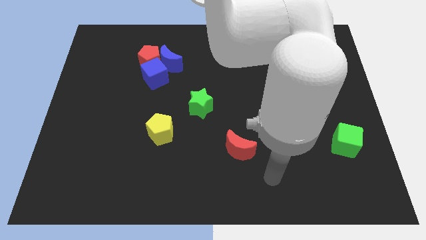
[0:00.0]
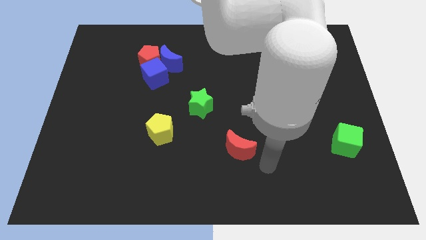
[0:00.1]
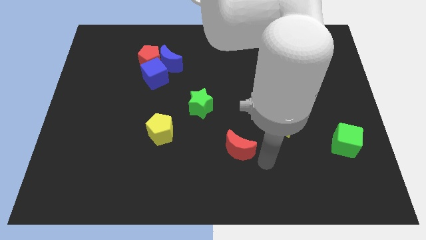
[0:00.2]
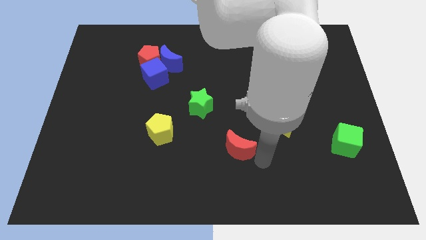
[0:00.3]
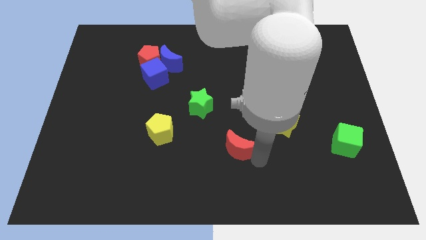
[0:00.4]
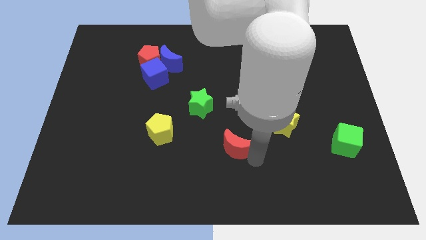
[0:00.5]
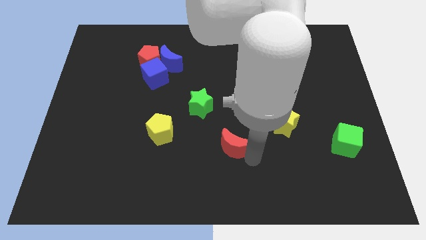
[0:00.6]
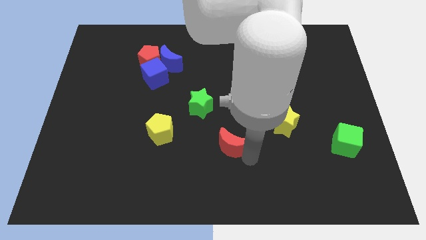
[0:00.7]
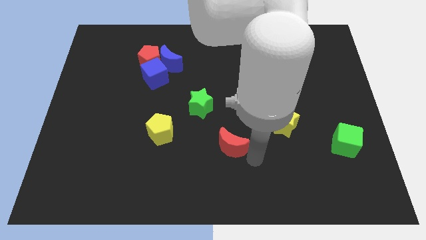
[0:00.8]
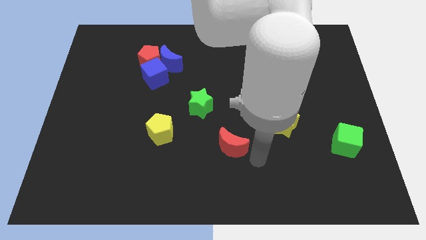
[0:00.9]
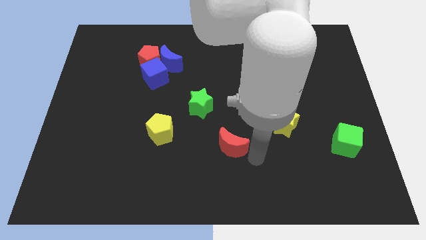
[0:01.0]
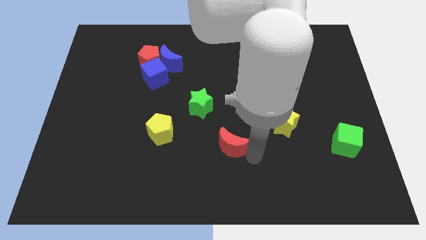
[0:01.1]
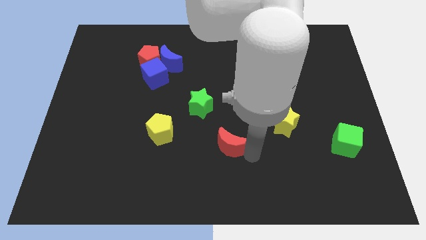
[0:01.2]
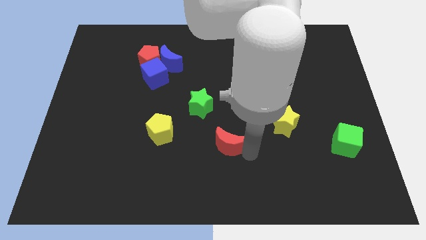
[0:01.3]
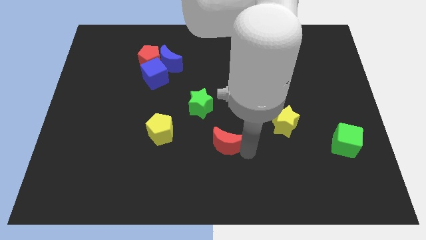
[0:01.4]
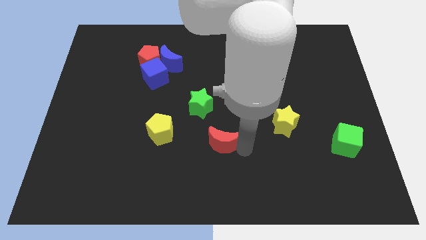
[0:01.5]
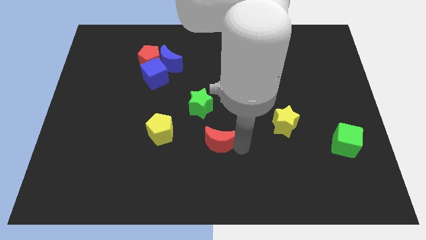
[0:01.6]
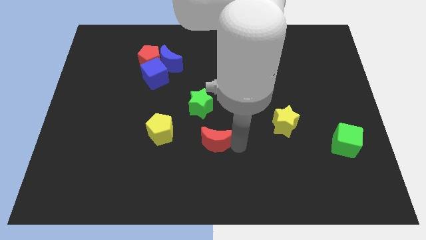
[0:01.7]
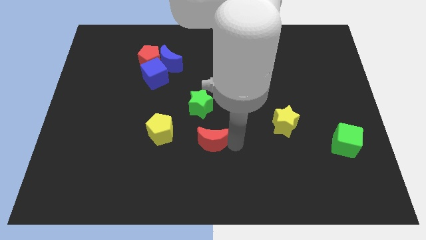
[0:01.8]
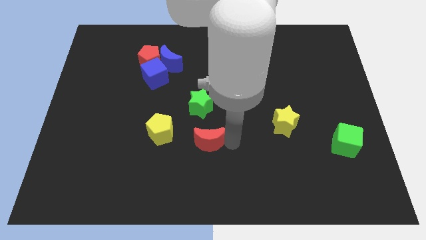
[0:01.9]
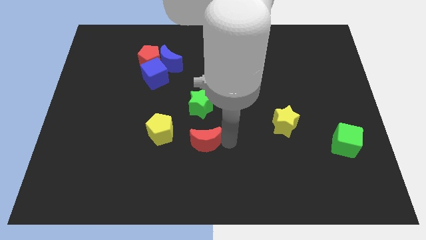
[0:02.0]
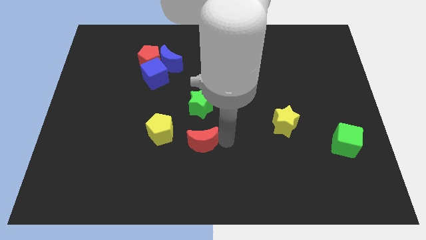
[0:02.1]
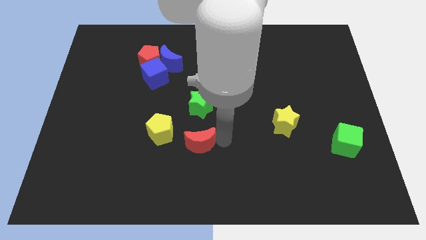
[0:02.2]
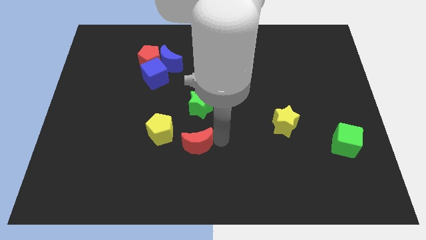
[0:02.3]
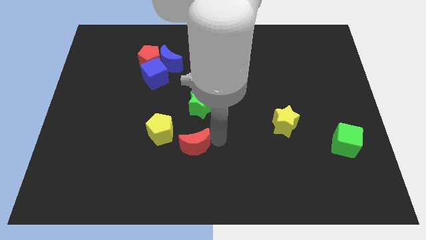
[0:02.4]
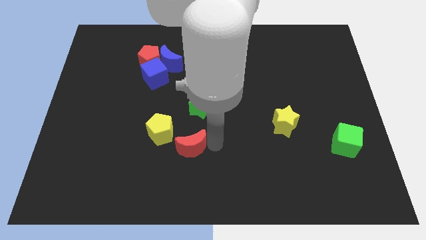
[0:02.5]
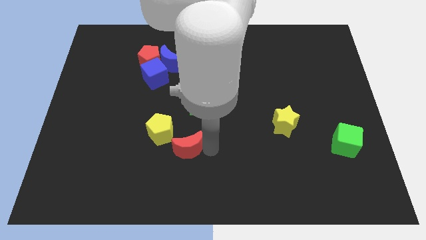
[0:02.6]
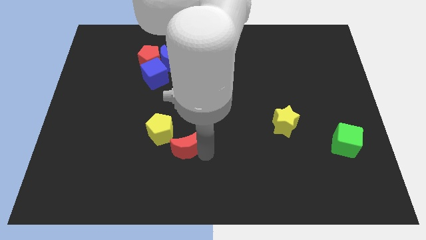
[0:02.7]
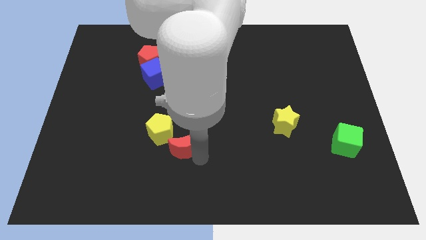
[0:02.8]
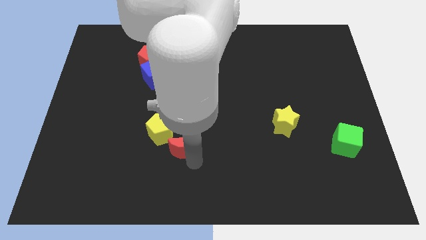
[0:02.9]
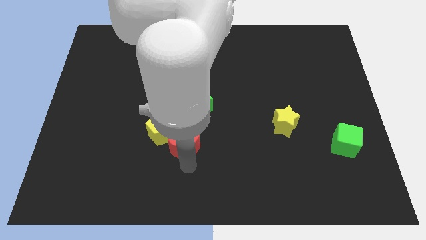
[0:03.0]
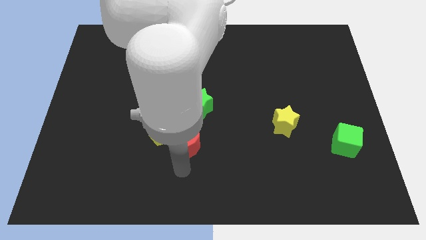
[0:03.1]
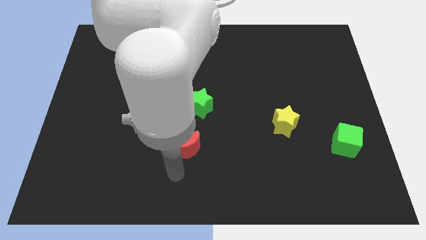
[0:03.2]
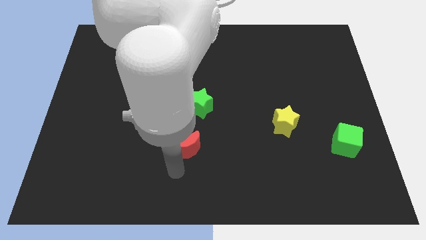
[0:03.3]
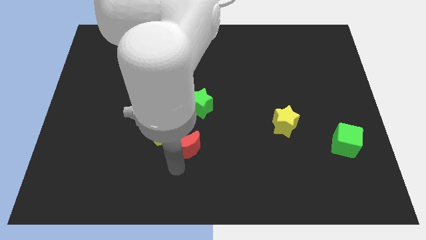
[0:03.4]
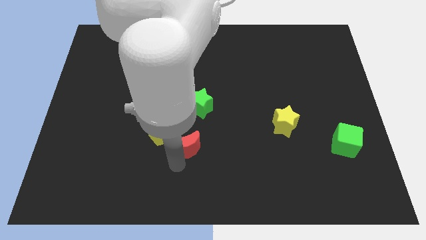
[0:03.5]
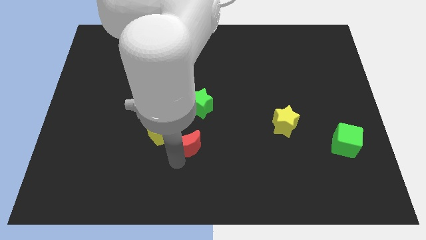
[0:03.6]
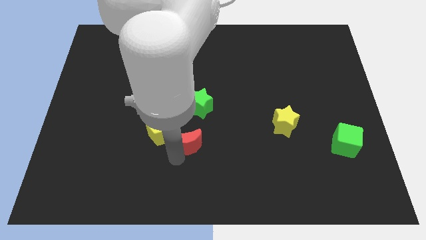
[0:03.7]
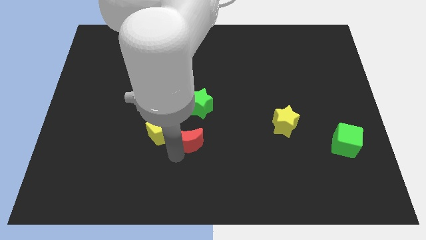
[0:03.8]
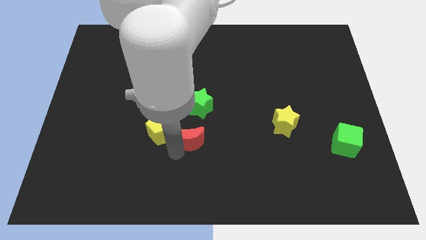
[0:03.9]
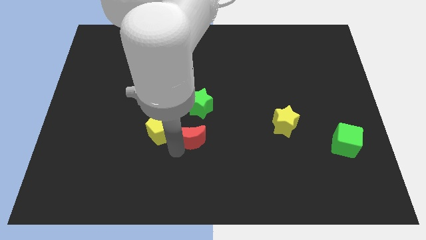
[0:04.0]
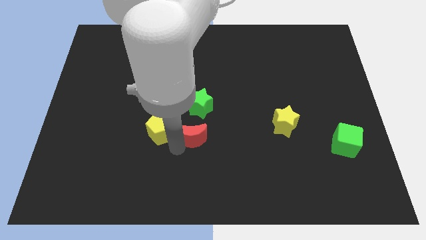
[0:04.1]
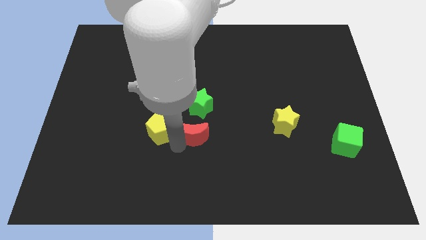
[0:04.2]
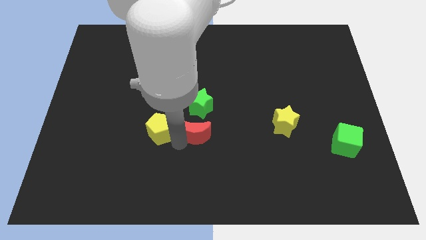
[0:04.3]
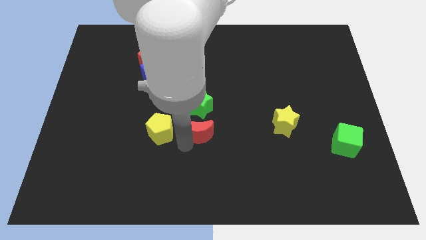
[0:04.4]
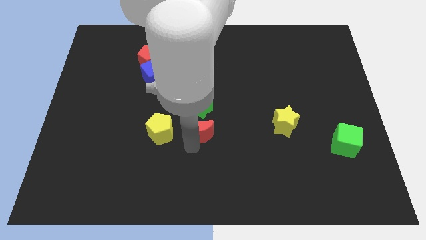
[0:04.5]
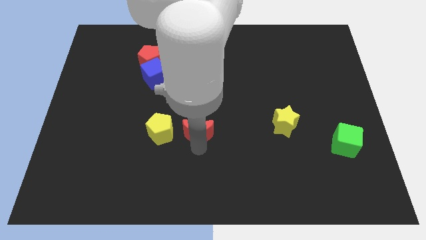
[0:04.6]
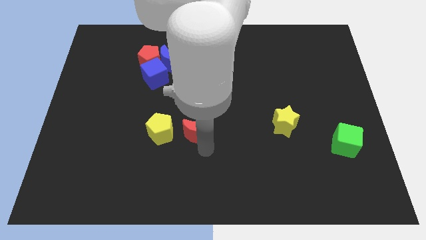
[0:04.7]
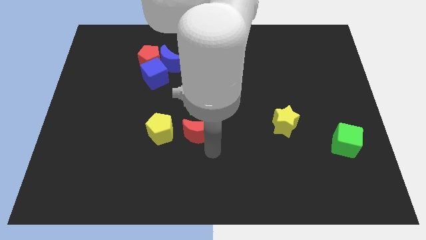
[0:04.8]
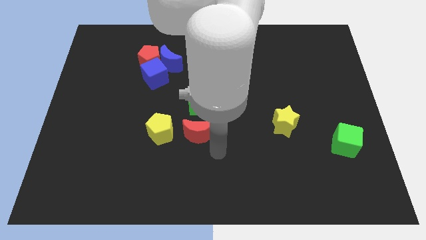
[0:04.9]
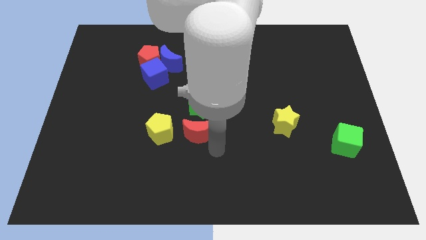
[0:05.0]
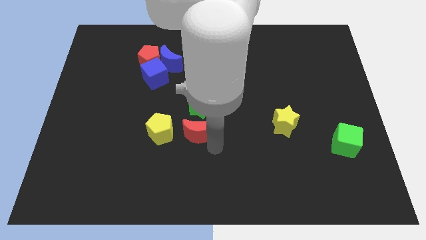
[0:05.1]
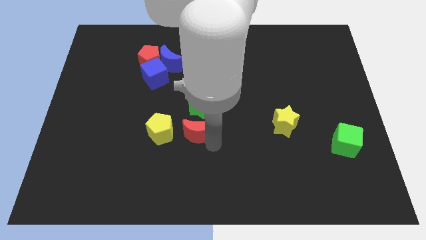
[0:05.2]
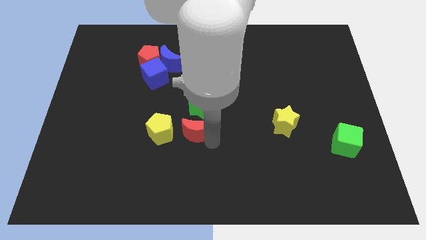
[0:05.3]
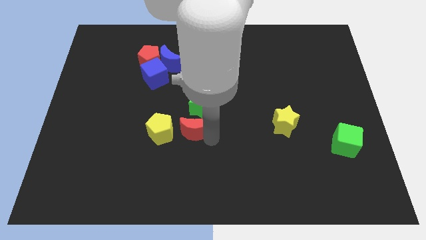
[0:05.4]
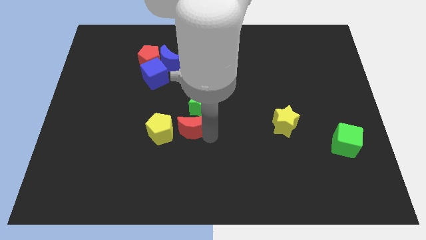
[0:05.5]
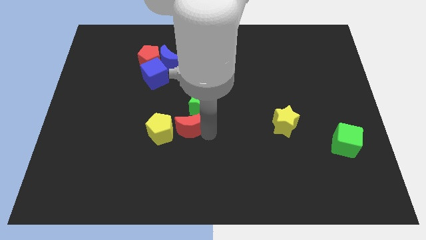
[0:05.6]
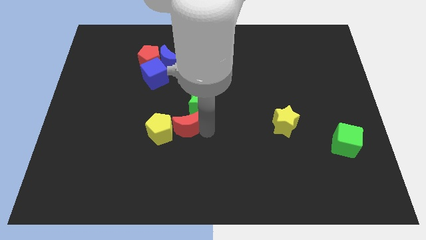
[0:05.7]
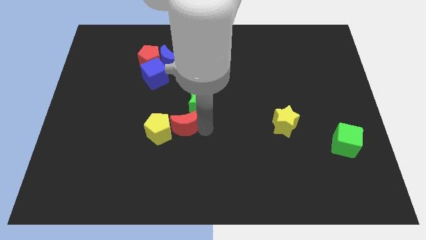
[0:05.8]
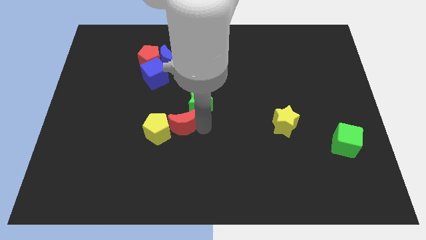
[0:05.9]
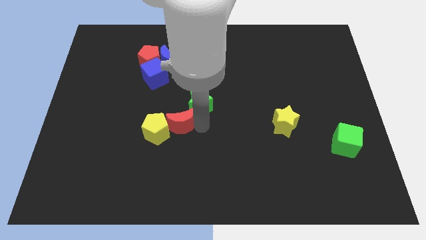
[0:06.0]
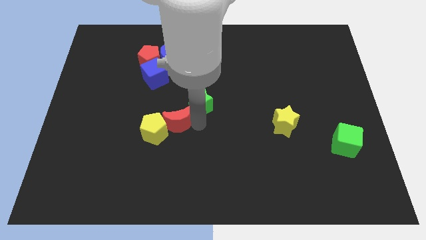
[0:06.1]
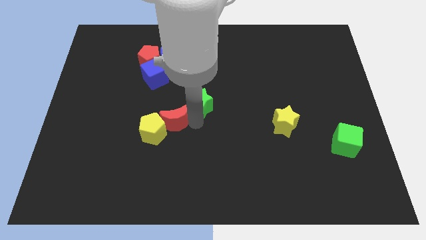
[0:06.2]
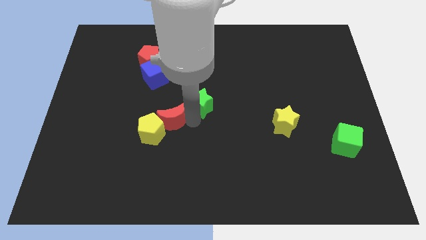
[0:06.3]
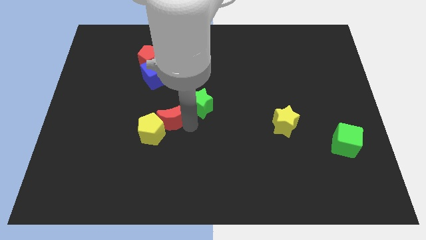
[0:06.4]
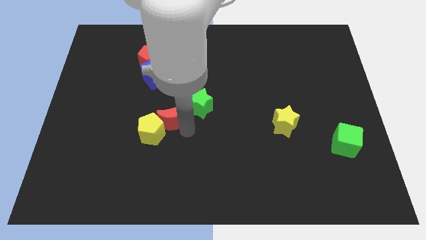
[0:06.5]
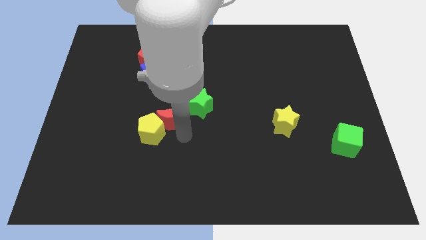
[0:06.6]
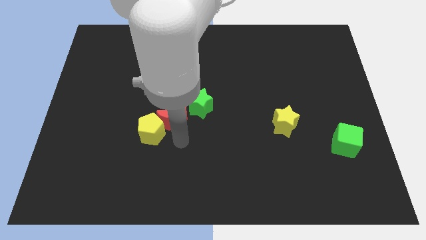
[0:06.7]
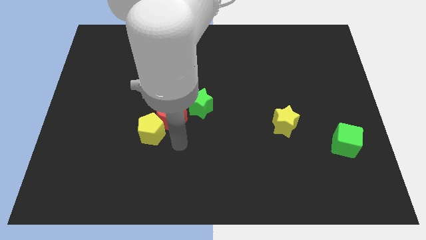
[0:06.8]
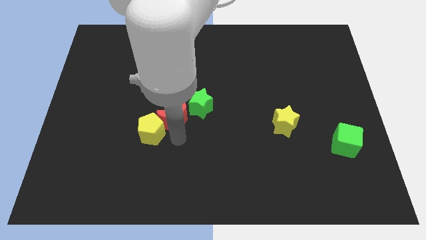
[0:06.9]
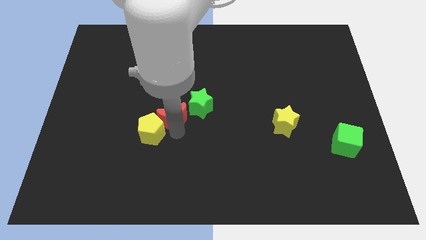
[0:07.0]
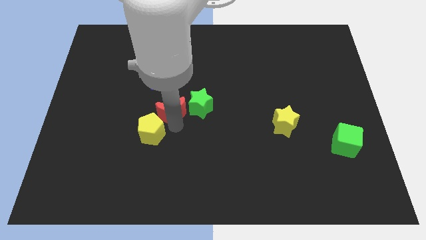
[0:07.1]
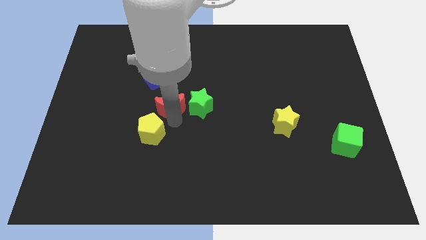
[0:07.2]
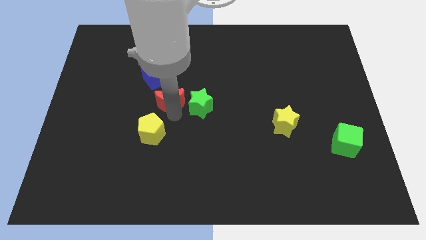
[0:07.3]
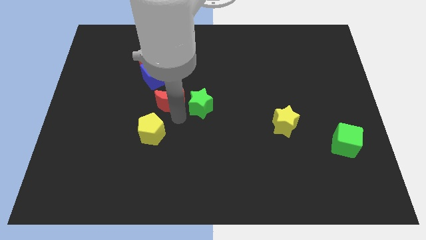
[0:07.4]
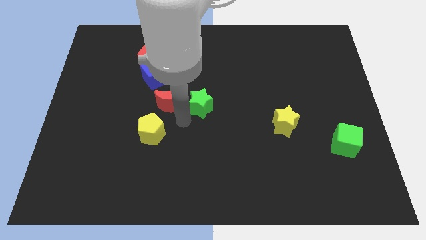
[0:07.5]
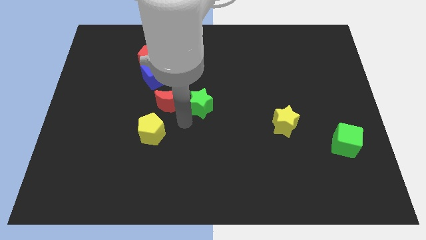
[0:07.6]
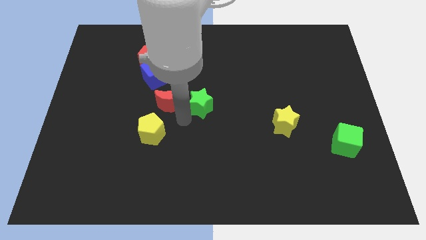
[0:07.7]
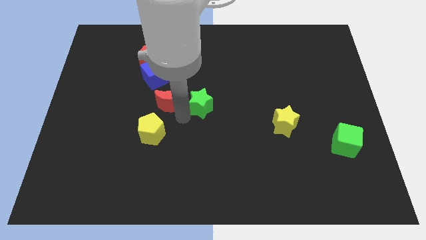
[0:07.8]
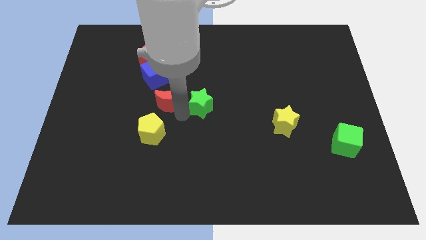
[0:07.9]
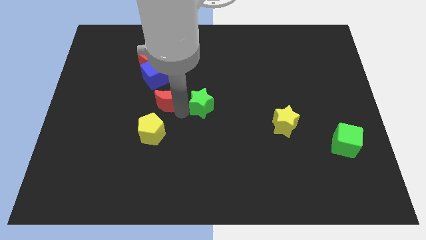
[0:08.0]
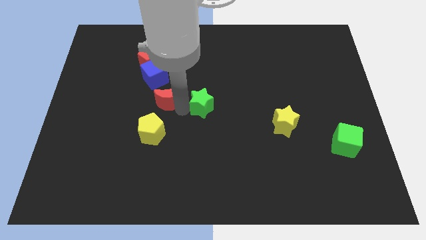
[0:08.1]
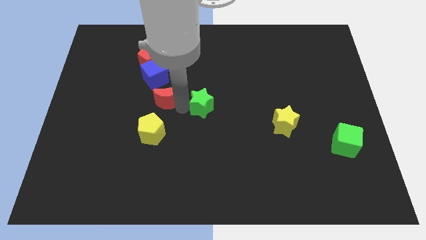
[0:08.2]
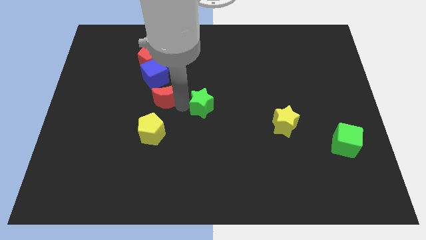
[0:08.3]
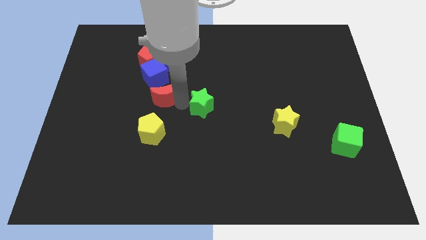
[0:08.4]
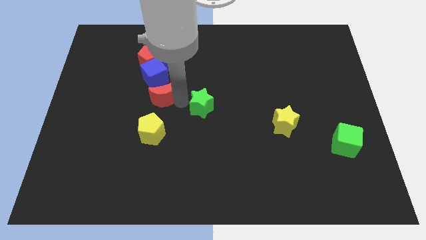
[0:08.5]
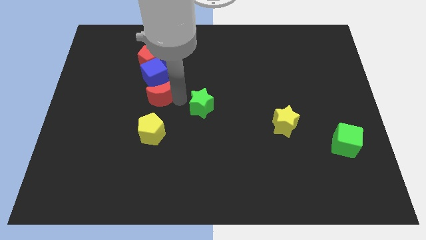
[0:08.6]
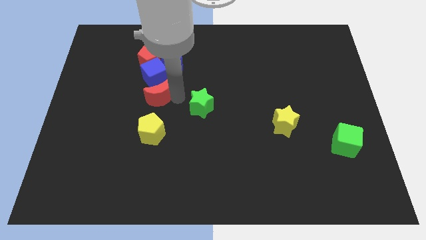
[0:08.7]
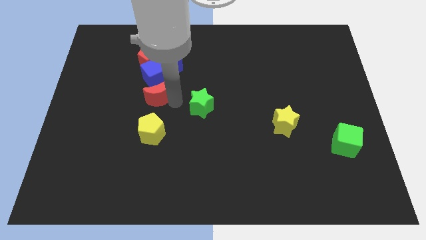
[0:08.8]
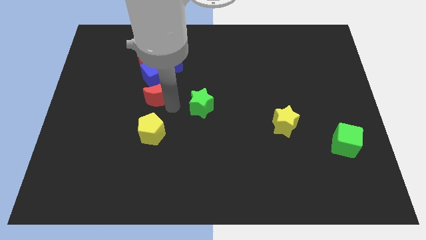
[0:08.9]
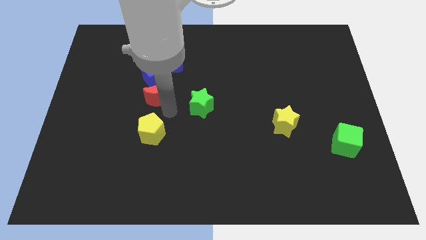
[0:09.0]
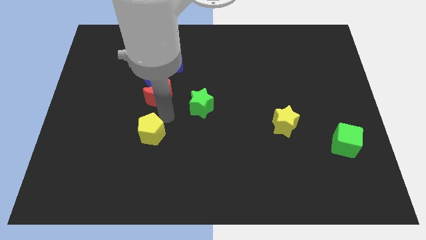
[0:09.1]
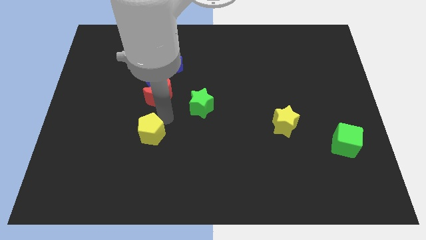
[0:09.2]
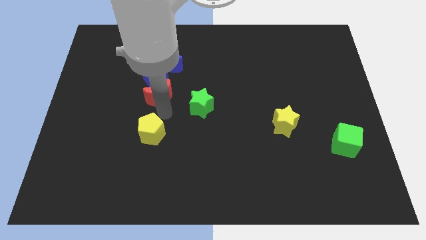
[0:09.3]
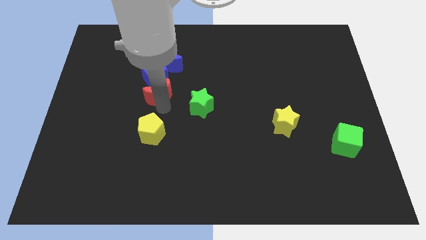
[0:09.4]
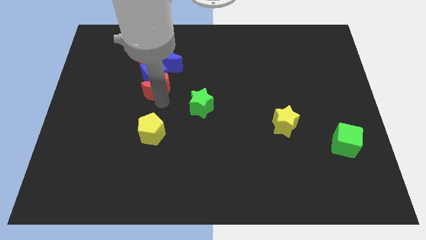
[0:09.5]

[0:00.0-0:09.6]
move the red moon next to the blue cube
